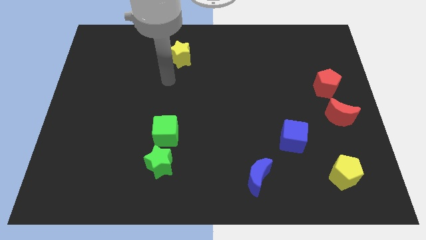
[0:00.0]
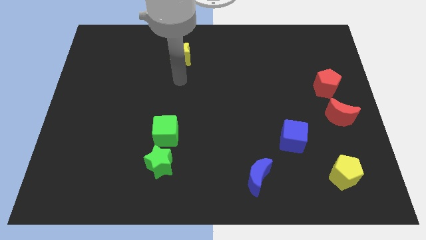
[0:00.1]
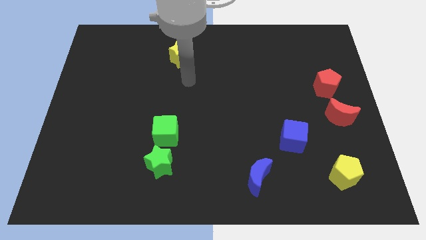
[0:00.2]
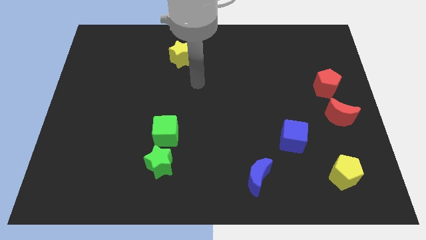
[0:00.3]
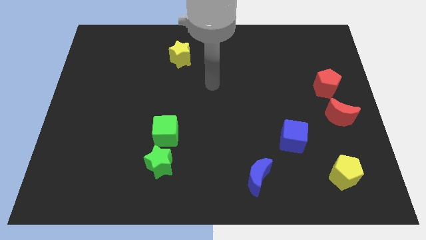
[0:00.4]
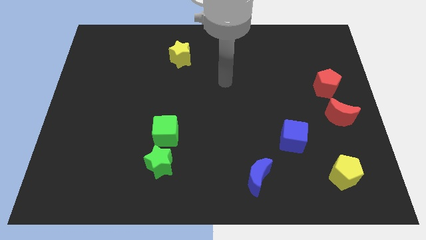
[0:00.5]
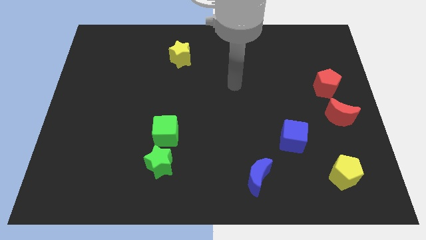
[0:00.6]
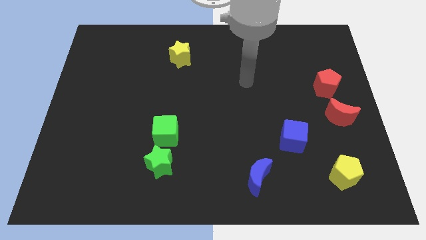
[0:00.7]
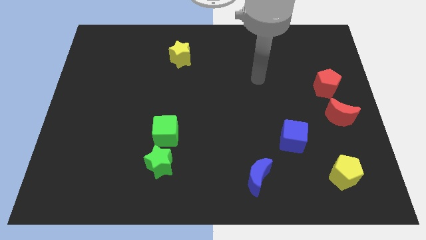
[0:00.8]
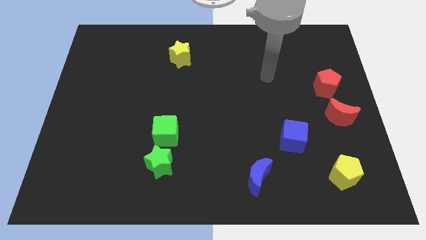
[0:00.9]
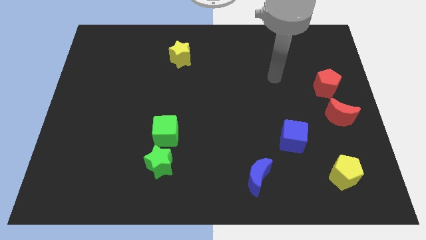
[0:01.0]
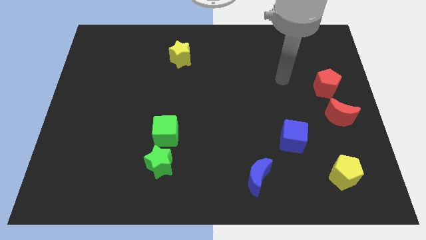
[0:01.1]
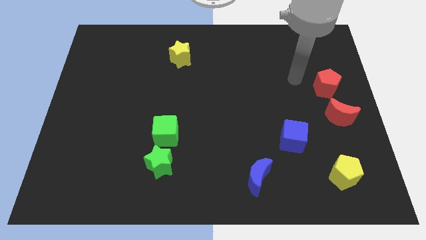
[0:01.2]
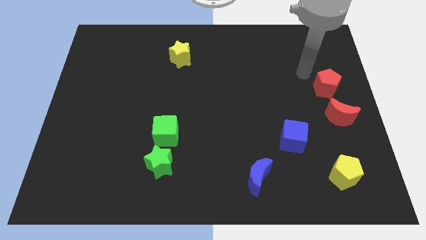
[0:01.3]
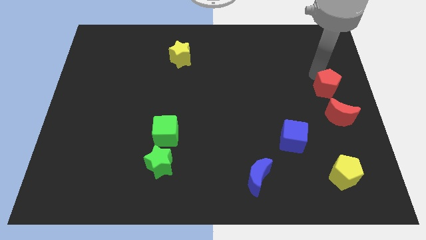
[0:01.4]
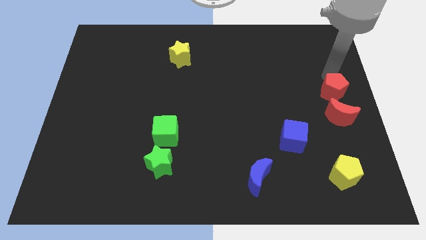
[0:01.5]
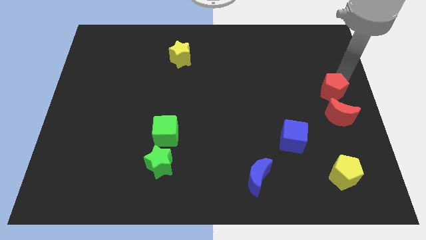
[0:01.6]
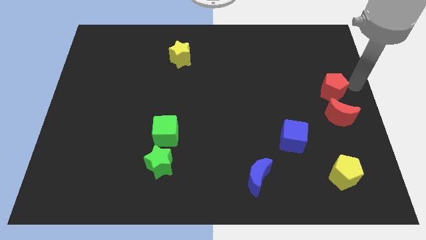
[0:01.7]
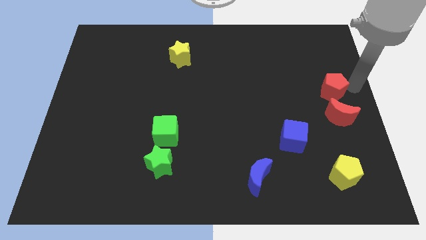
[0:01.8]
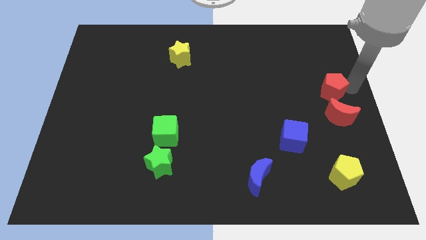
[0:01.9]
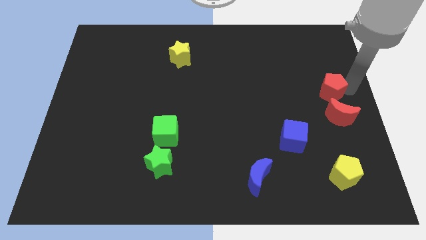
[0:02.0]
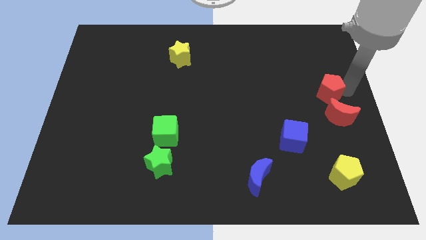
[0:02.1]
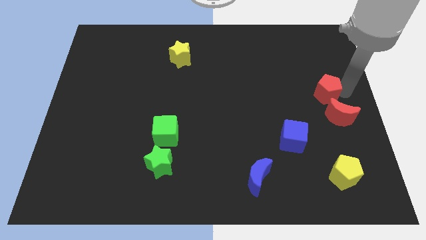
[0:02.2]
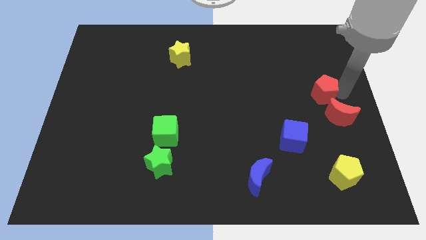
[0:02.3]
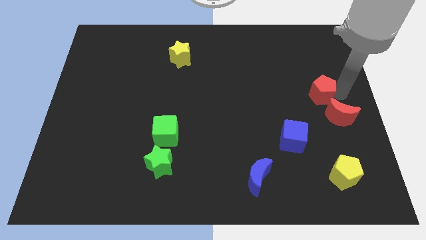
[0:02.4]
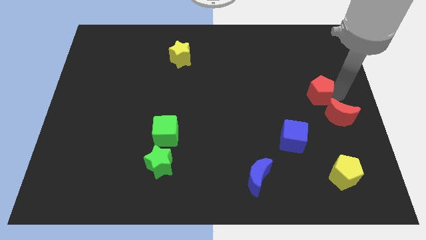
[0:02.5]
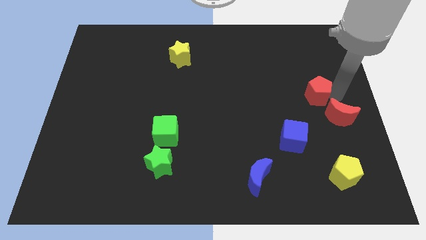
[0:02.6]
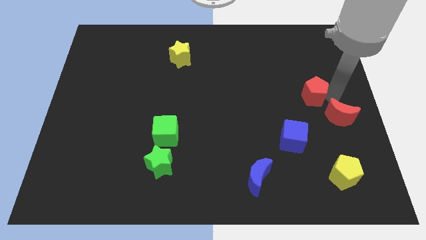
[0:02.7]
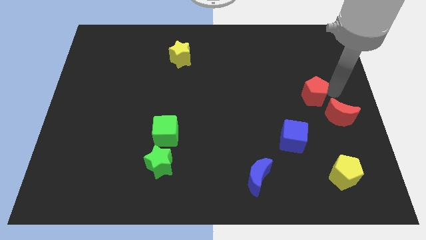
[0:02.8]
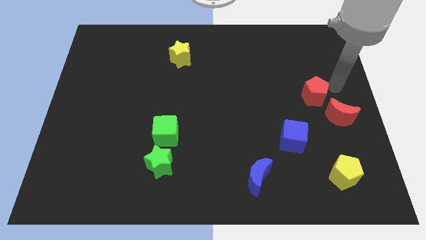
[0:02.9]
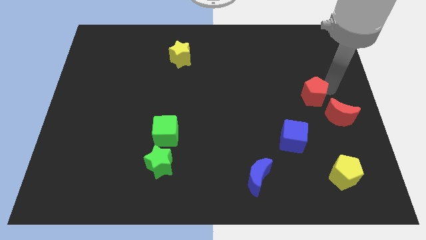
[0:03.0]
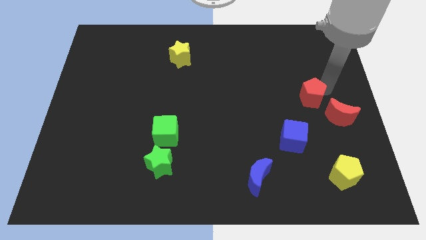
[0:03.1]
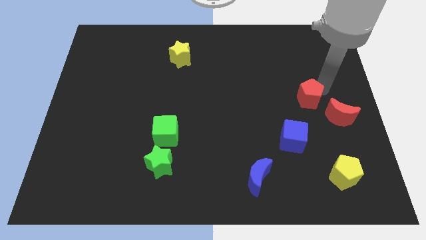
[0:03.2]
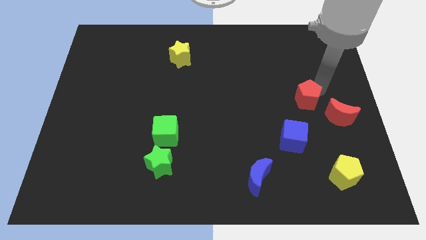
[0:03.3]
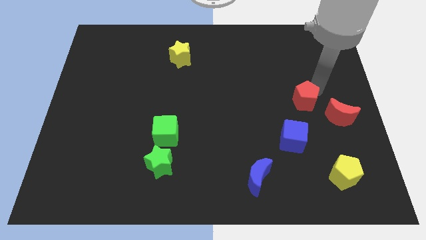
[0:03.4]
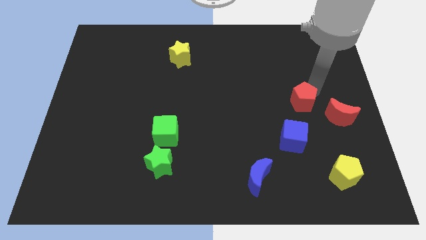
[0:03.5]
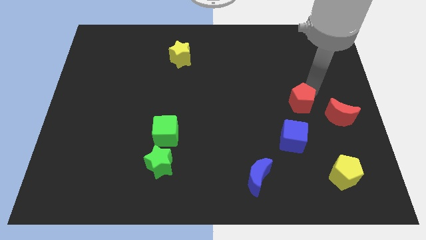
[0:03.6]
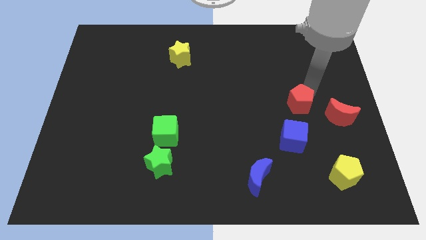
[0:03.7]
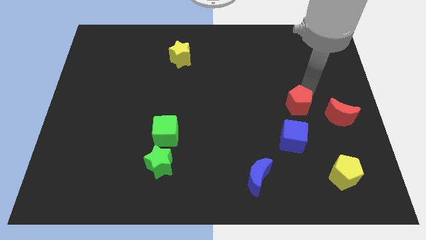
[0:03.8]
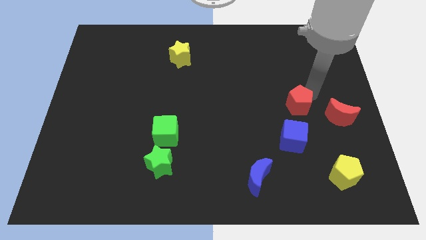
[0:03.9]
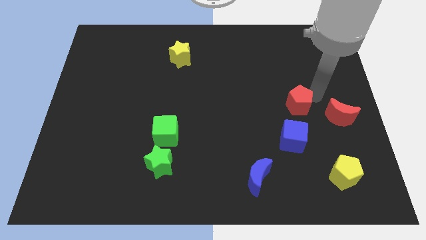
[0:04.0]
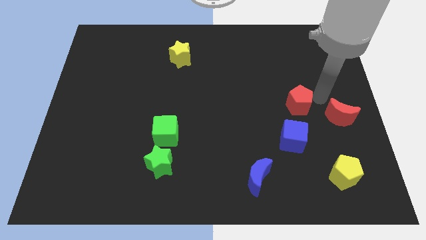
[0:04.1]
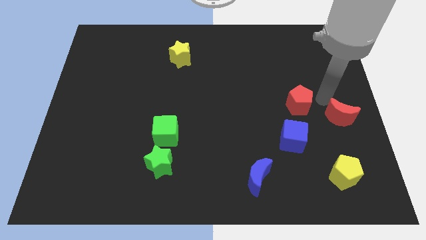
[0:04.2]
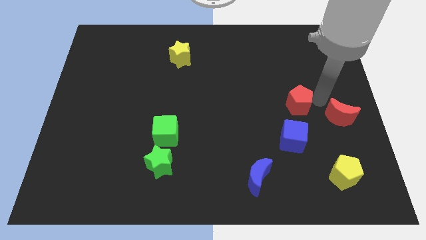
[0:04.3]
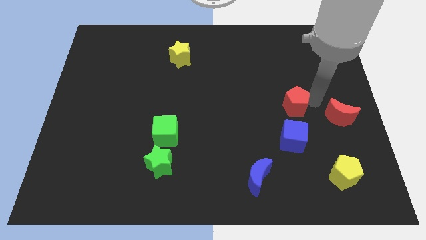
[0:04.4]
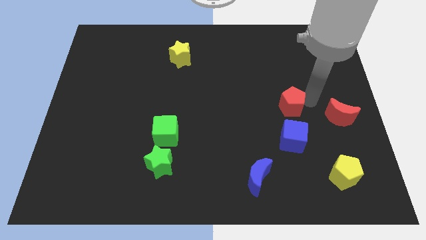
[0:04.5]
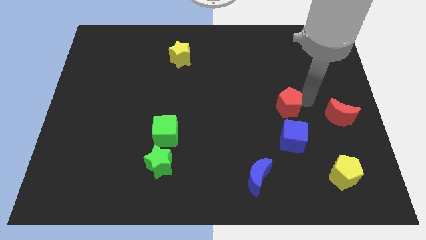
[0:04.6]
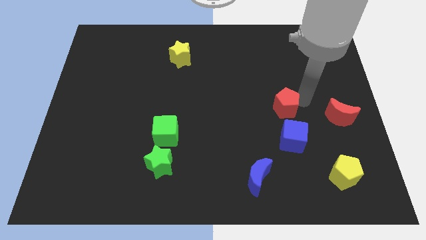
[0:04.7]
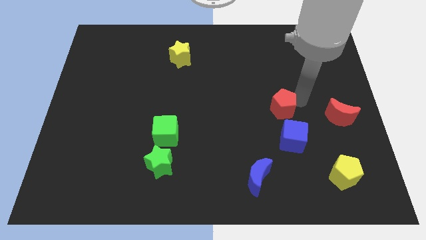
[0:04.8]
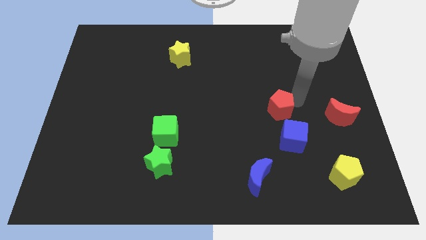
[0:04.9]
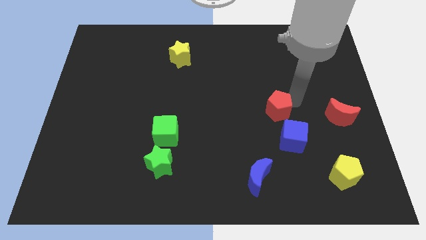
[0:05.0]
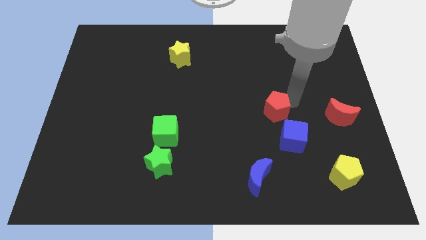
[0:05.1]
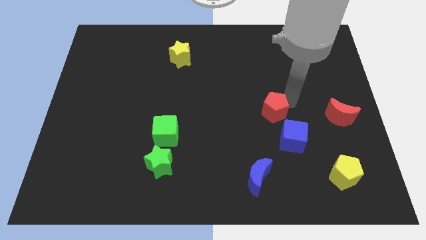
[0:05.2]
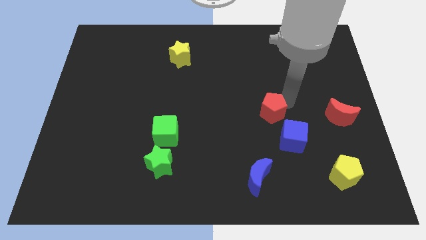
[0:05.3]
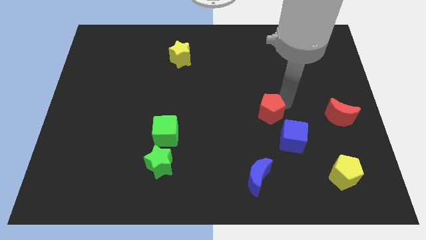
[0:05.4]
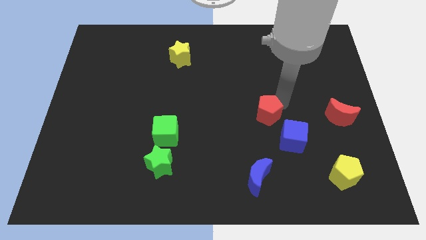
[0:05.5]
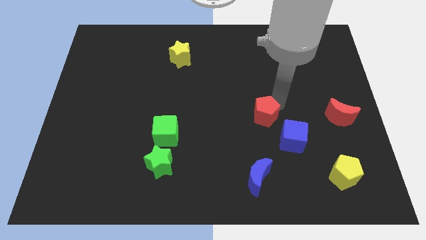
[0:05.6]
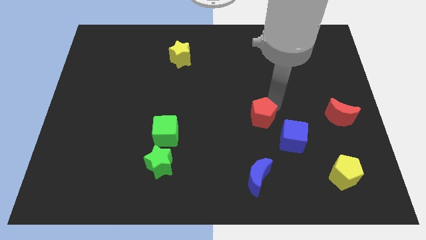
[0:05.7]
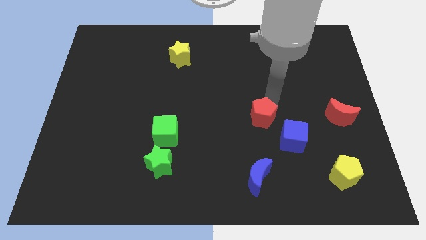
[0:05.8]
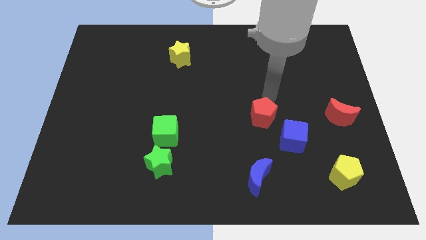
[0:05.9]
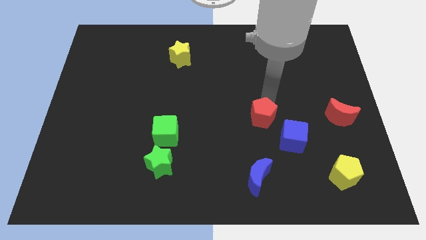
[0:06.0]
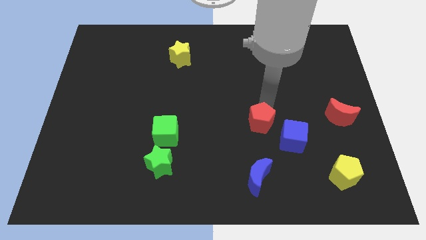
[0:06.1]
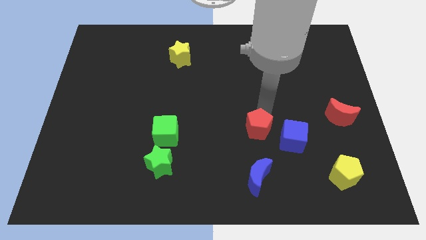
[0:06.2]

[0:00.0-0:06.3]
move the red pentagon diagonally downwards and left

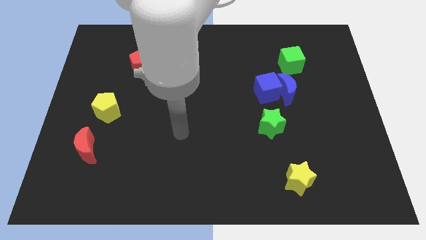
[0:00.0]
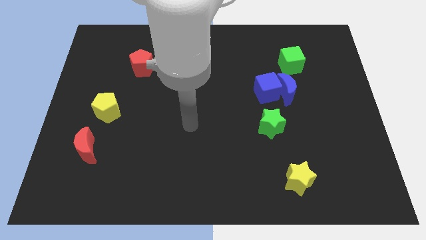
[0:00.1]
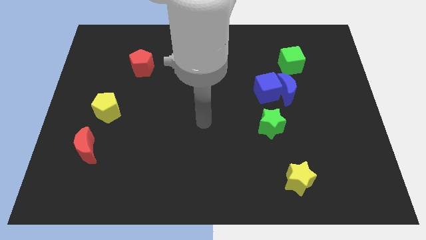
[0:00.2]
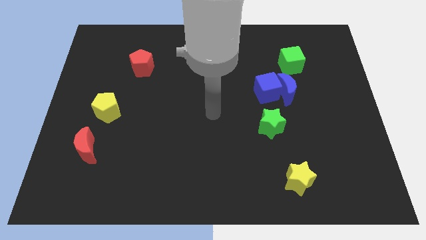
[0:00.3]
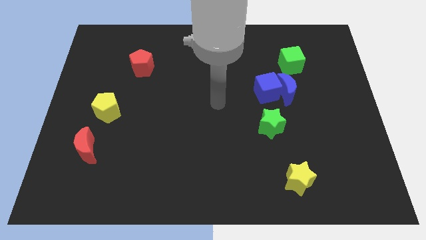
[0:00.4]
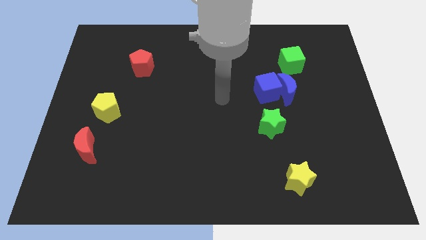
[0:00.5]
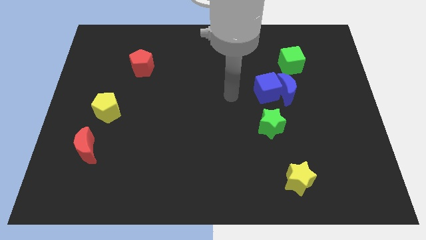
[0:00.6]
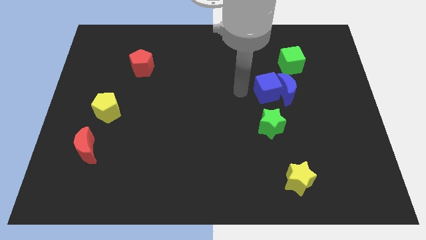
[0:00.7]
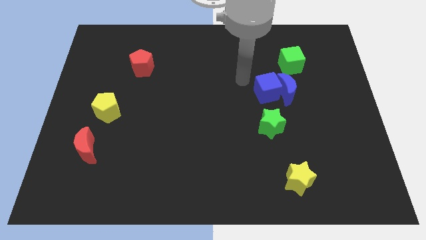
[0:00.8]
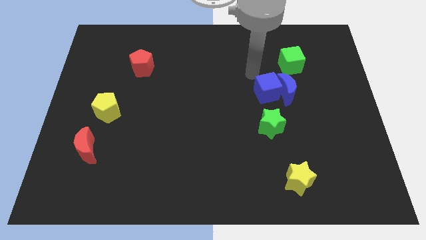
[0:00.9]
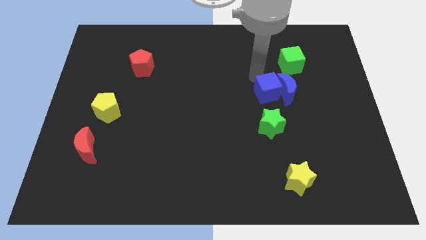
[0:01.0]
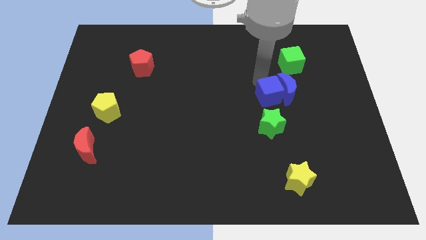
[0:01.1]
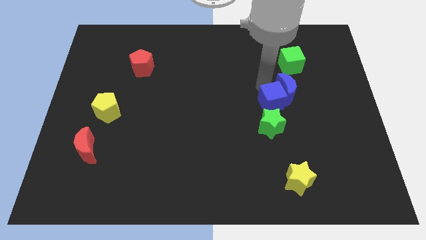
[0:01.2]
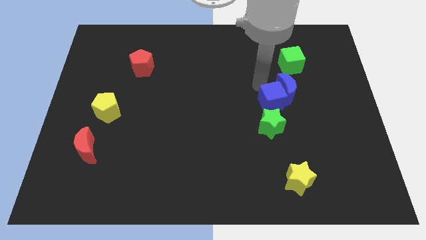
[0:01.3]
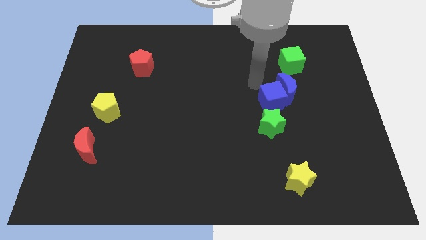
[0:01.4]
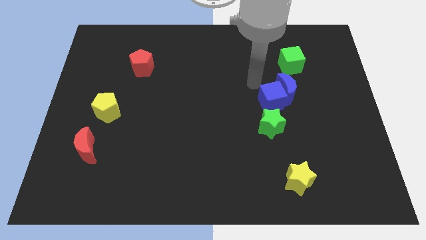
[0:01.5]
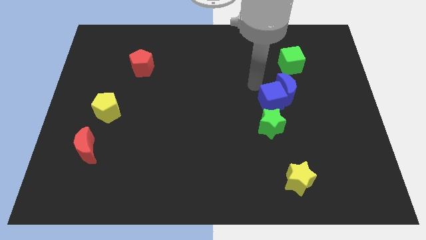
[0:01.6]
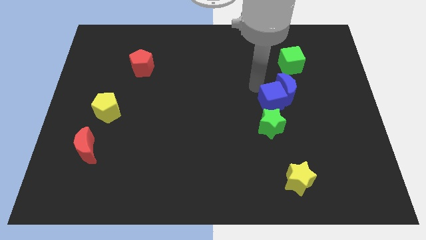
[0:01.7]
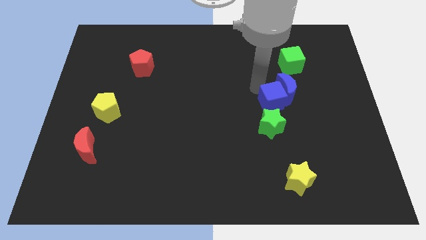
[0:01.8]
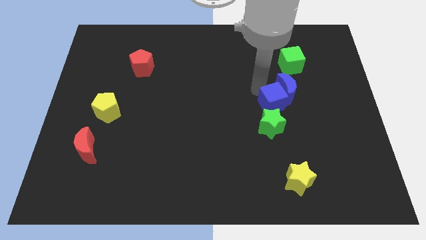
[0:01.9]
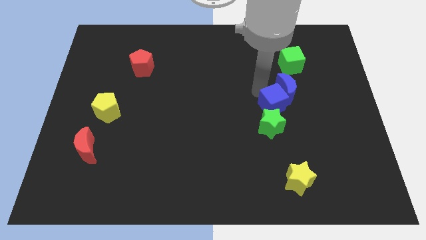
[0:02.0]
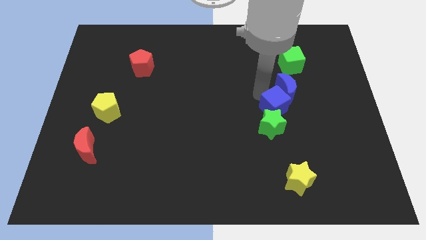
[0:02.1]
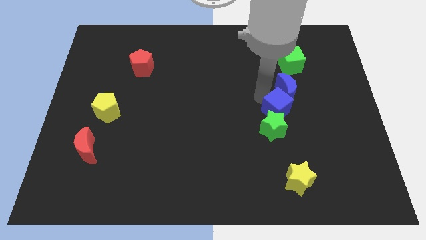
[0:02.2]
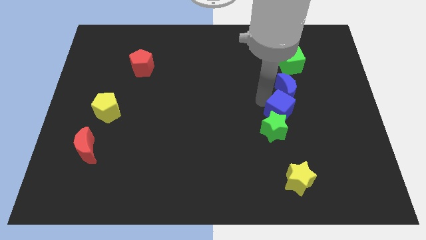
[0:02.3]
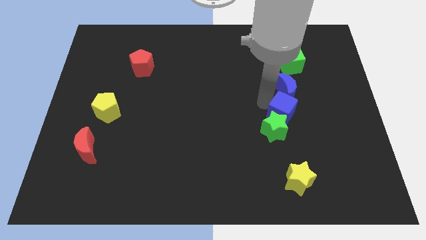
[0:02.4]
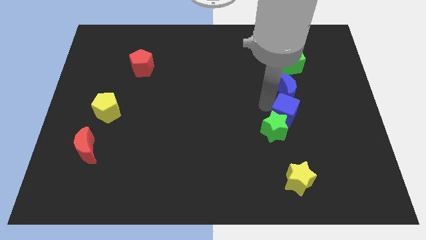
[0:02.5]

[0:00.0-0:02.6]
move the blue cube slightly down and to the right
